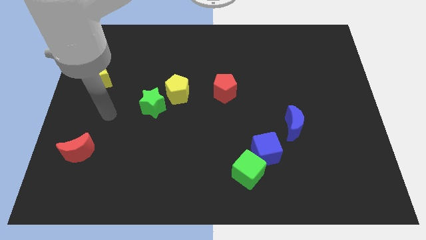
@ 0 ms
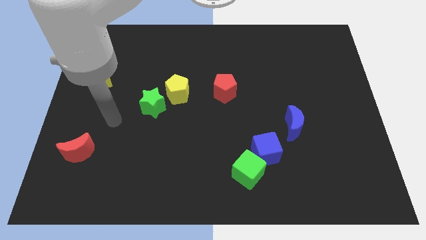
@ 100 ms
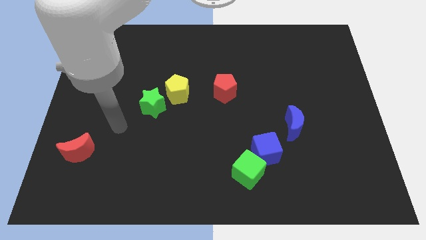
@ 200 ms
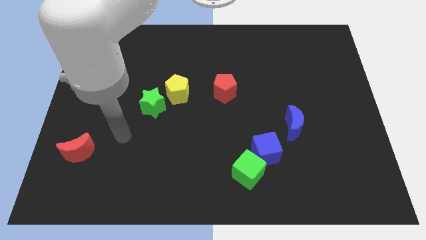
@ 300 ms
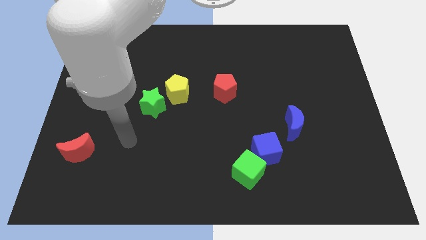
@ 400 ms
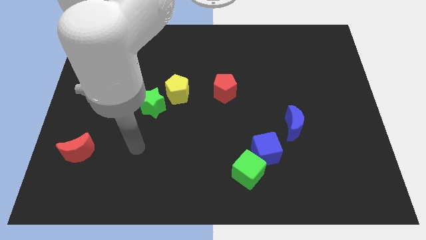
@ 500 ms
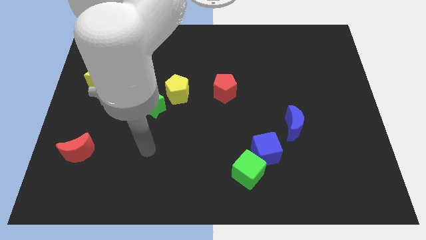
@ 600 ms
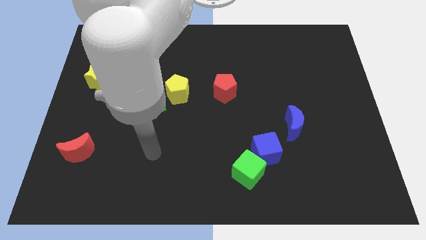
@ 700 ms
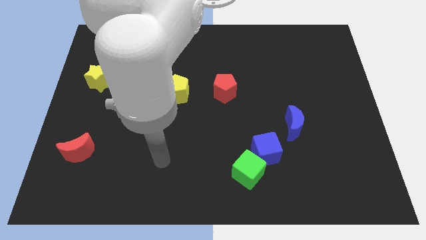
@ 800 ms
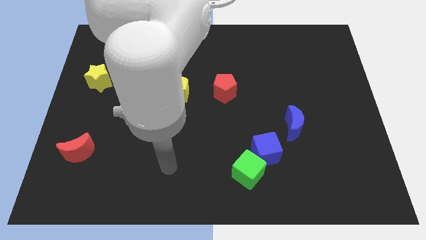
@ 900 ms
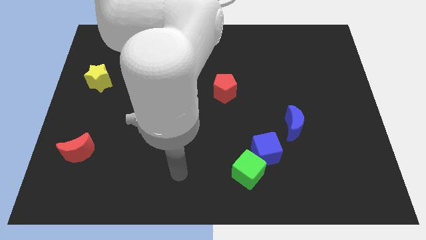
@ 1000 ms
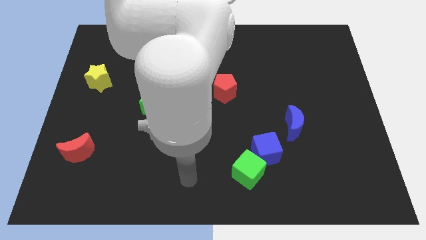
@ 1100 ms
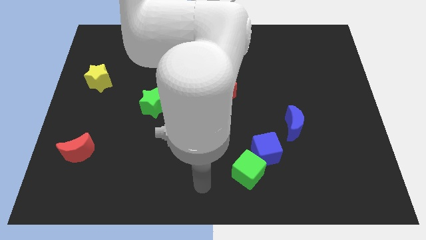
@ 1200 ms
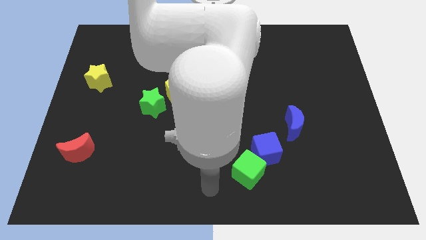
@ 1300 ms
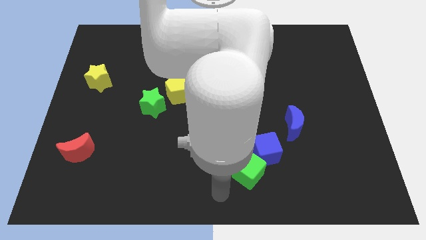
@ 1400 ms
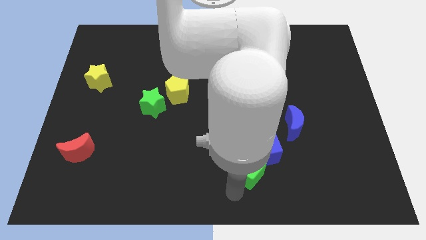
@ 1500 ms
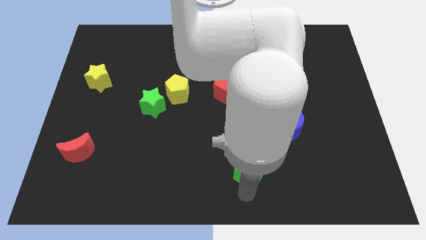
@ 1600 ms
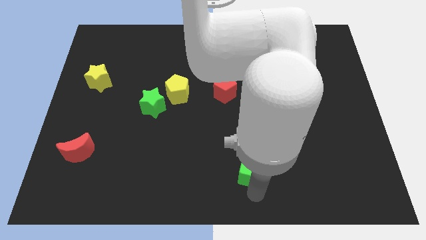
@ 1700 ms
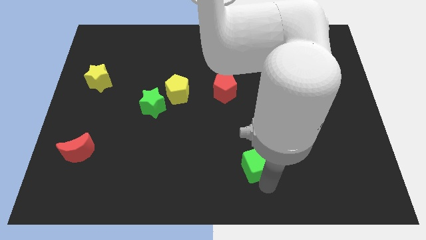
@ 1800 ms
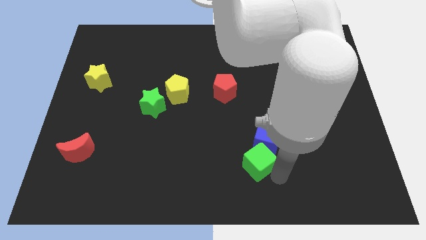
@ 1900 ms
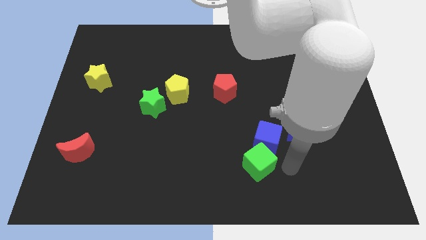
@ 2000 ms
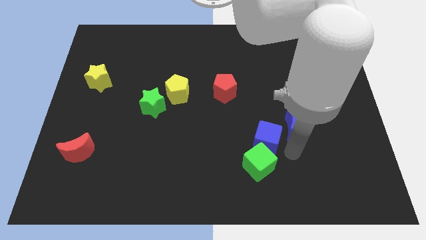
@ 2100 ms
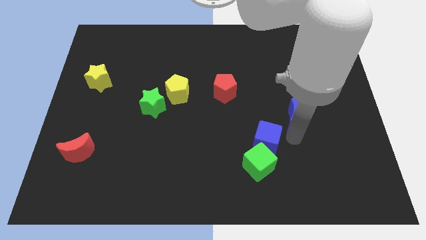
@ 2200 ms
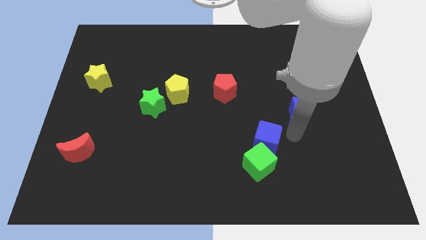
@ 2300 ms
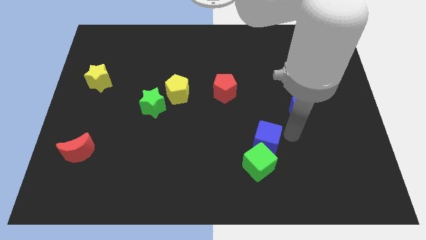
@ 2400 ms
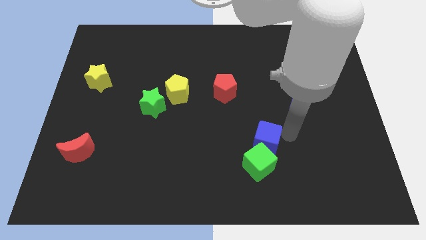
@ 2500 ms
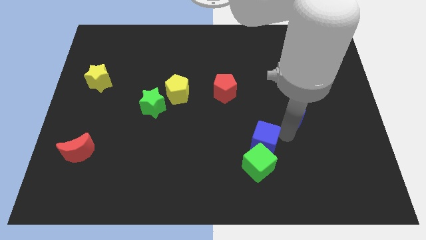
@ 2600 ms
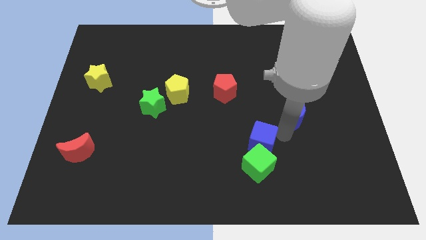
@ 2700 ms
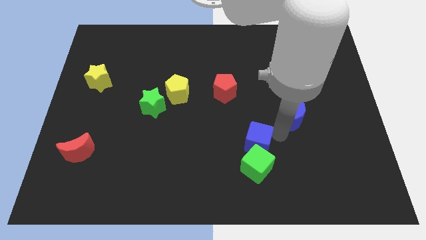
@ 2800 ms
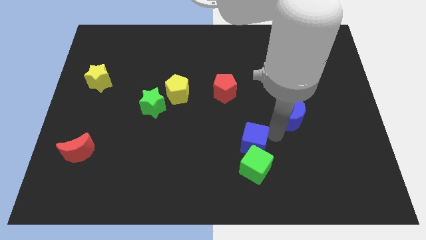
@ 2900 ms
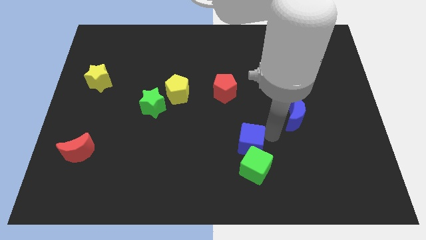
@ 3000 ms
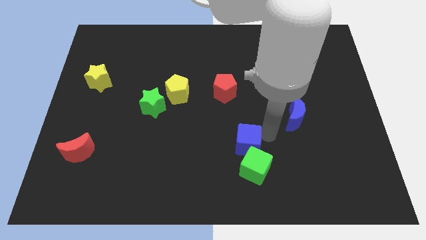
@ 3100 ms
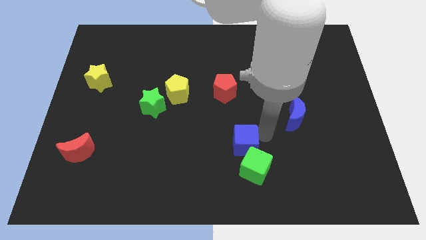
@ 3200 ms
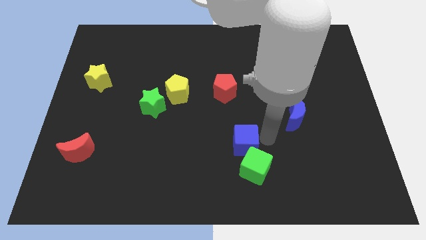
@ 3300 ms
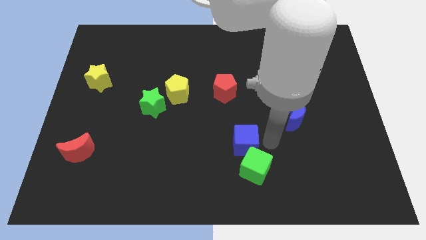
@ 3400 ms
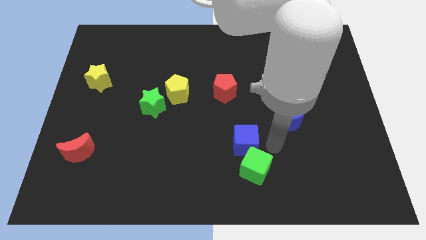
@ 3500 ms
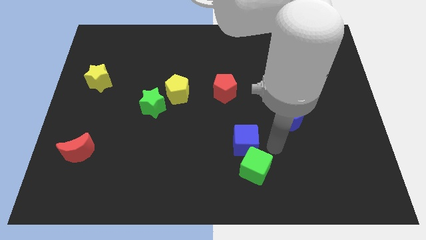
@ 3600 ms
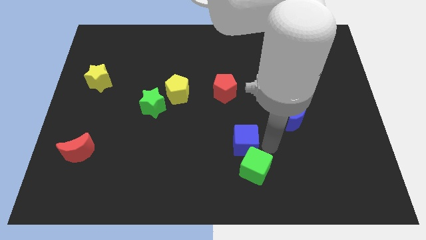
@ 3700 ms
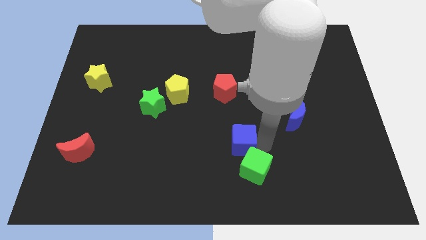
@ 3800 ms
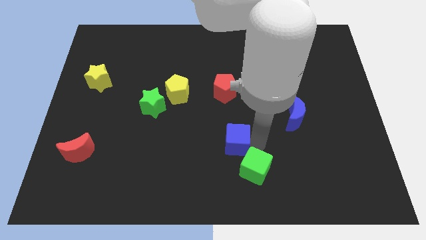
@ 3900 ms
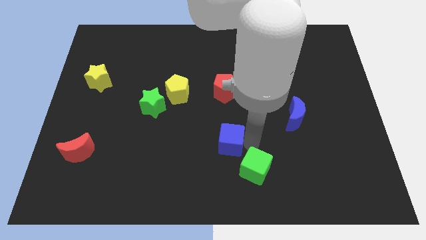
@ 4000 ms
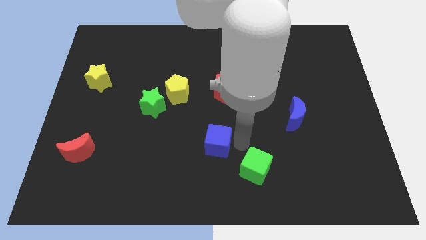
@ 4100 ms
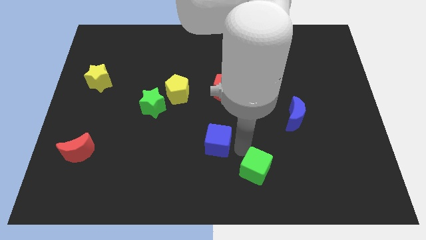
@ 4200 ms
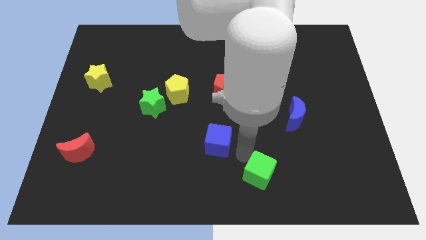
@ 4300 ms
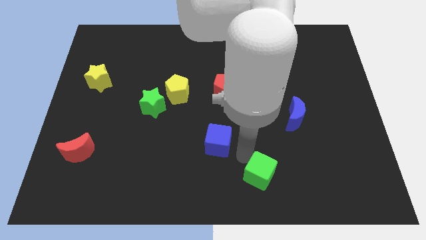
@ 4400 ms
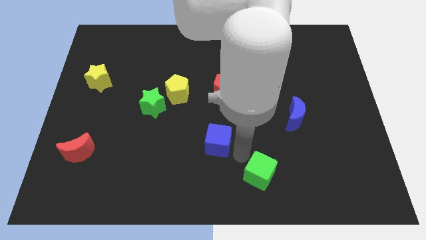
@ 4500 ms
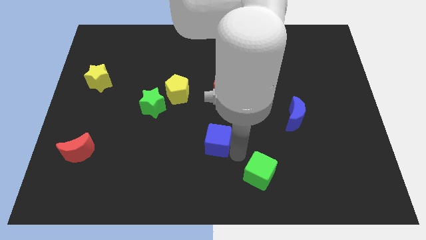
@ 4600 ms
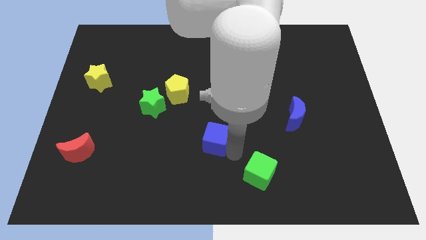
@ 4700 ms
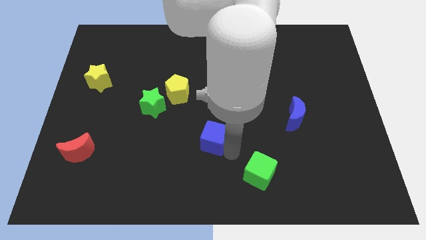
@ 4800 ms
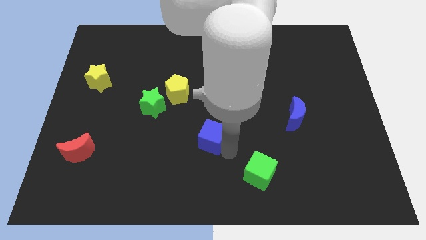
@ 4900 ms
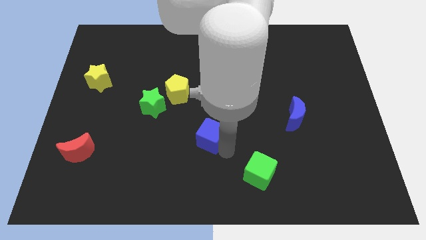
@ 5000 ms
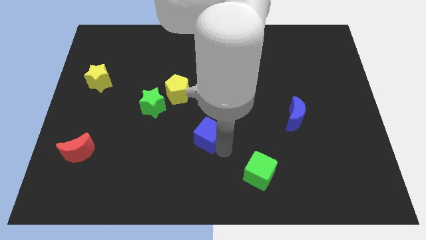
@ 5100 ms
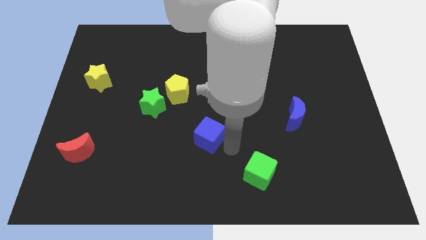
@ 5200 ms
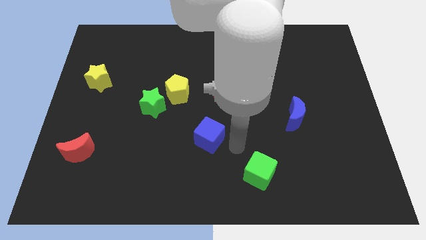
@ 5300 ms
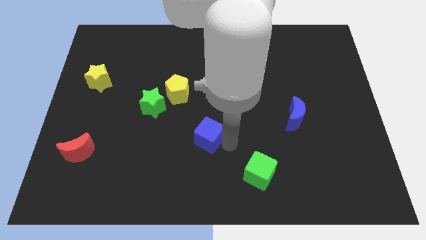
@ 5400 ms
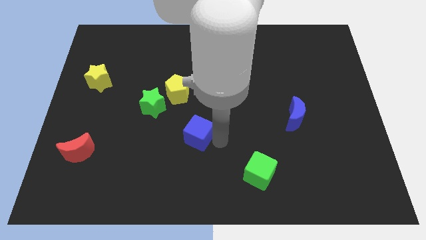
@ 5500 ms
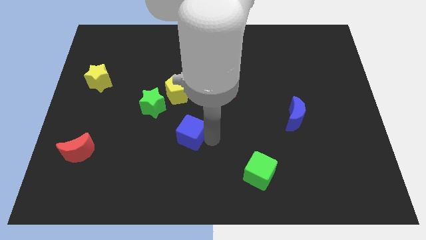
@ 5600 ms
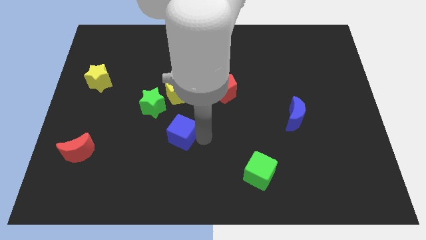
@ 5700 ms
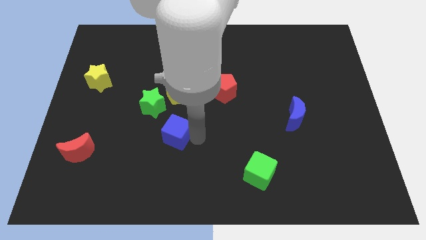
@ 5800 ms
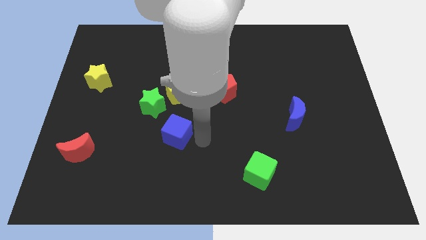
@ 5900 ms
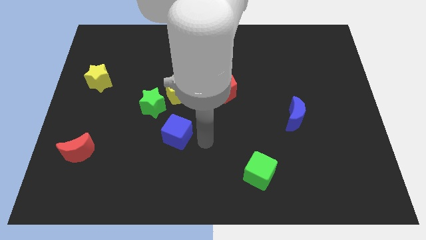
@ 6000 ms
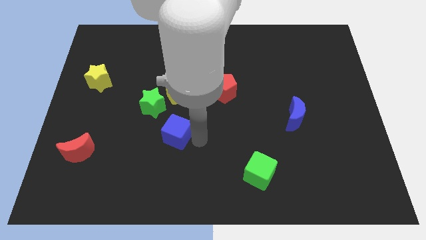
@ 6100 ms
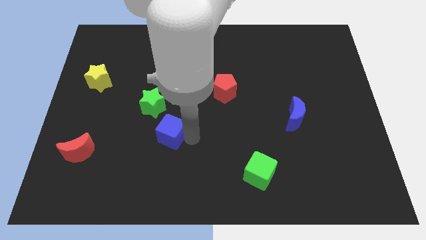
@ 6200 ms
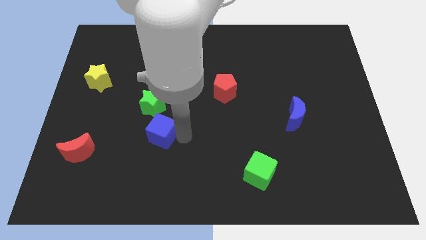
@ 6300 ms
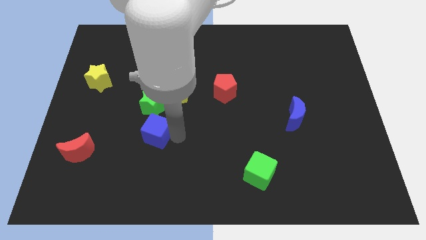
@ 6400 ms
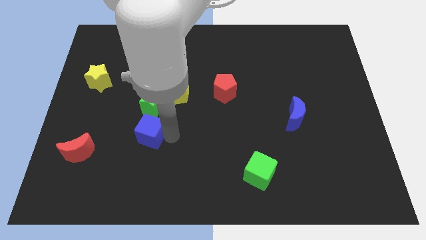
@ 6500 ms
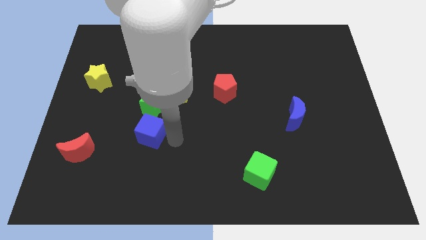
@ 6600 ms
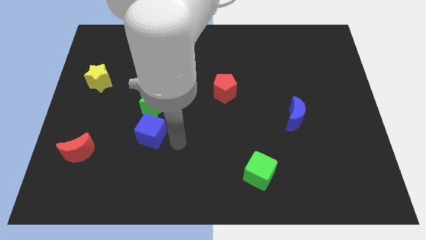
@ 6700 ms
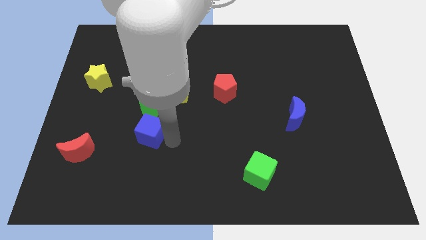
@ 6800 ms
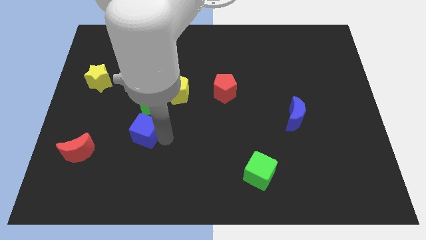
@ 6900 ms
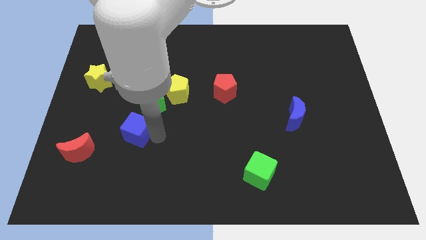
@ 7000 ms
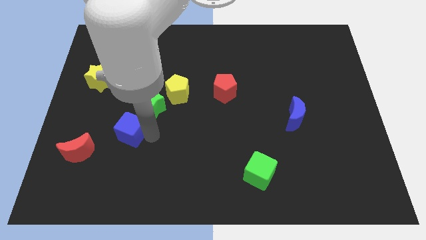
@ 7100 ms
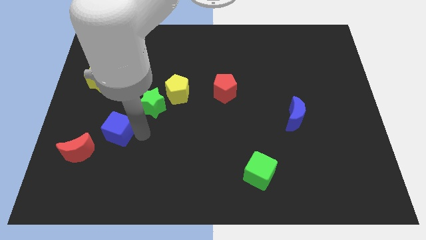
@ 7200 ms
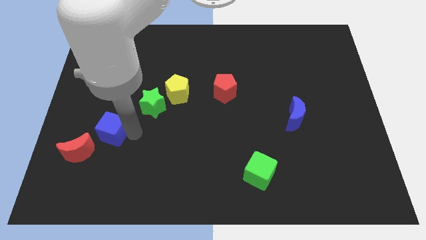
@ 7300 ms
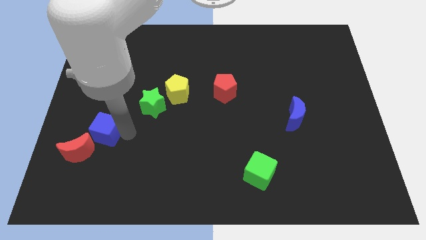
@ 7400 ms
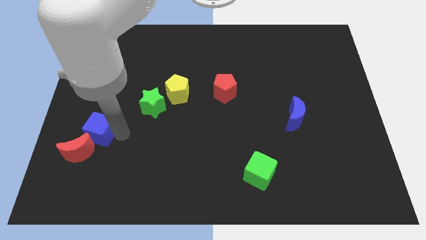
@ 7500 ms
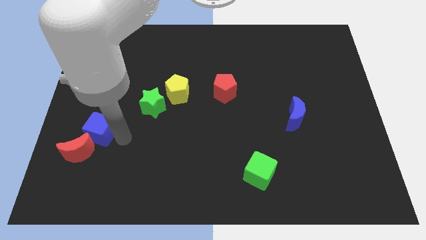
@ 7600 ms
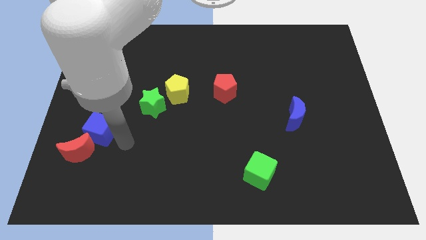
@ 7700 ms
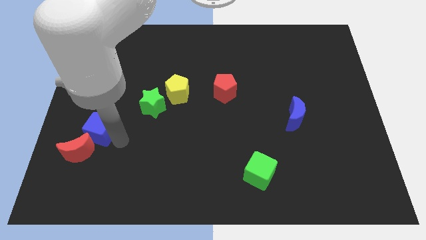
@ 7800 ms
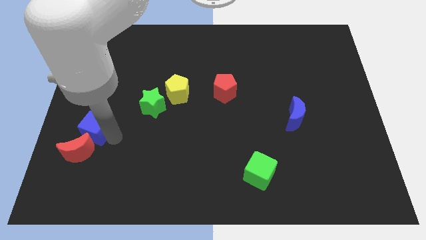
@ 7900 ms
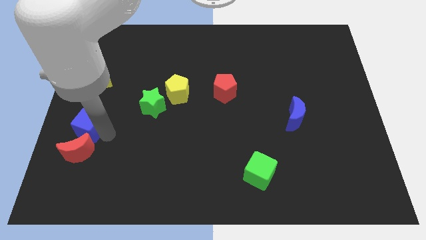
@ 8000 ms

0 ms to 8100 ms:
put the blue cube to the left side
